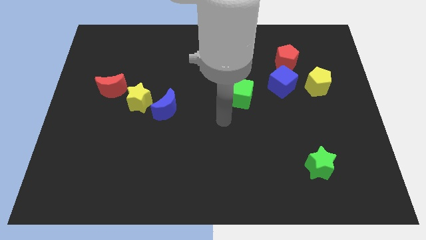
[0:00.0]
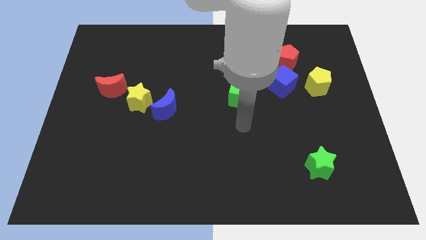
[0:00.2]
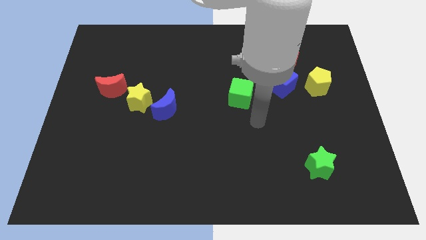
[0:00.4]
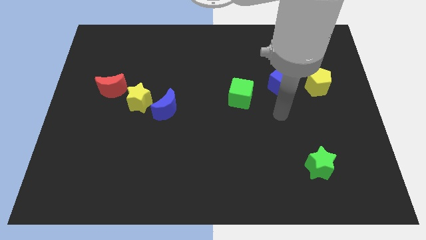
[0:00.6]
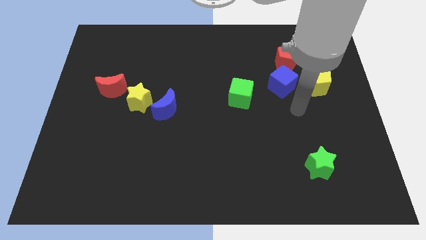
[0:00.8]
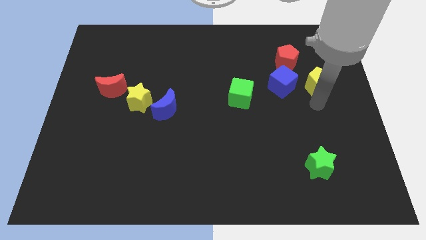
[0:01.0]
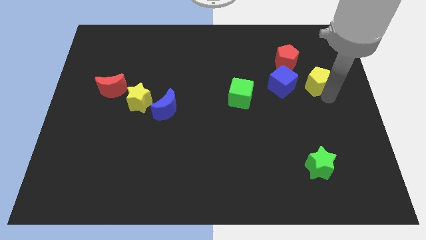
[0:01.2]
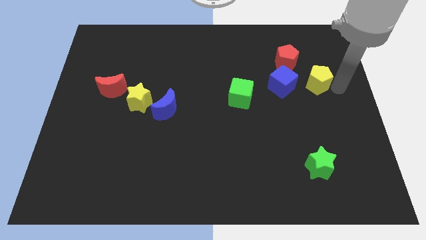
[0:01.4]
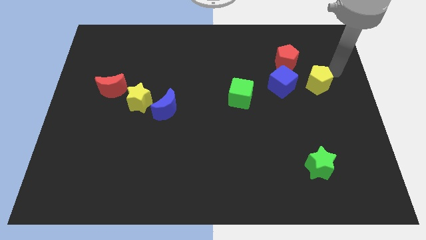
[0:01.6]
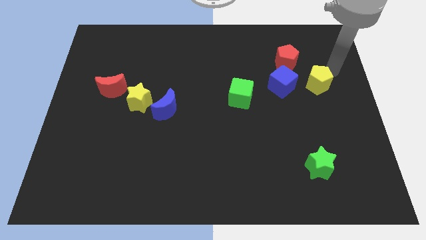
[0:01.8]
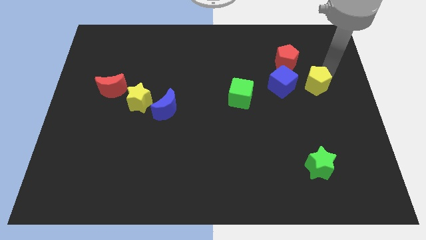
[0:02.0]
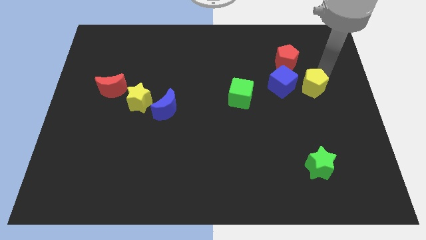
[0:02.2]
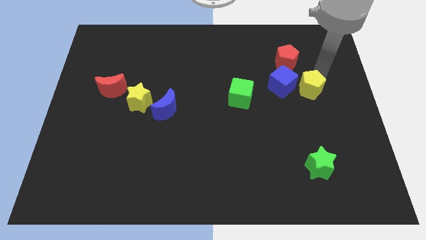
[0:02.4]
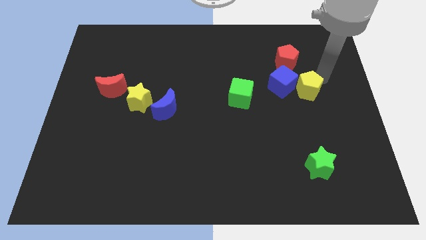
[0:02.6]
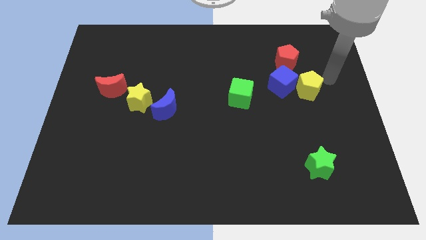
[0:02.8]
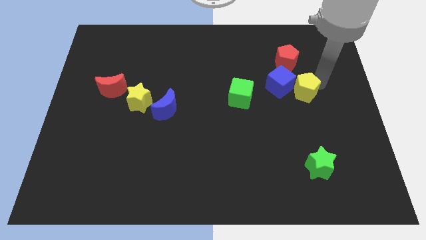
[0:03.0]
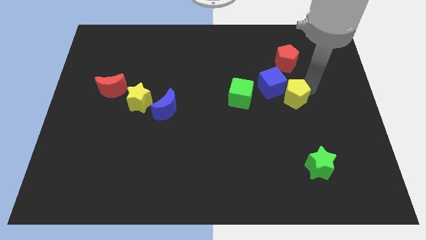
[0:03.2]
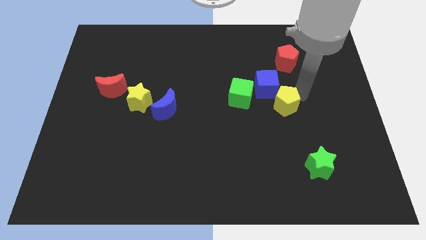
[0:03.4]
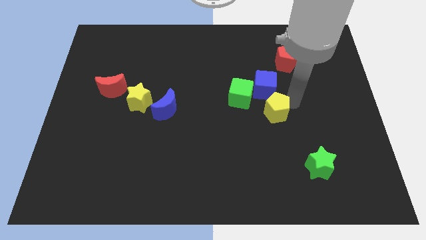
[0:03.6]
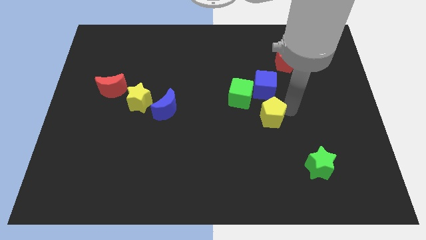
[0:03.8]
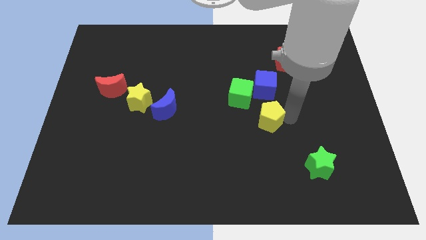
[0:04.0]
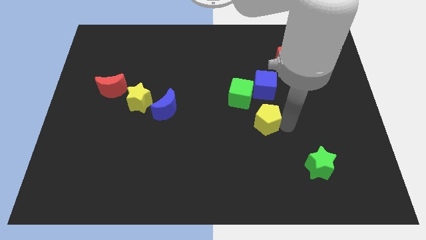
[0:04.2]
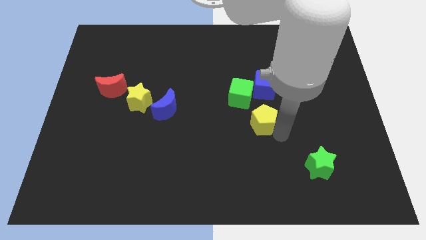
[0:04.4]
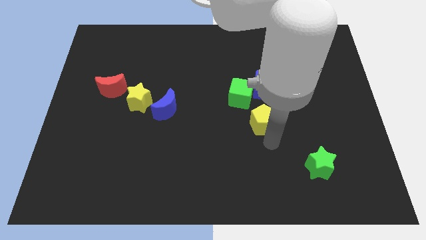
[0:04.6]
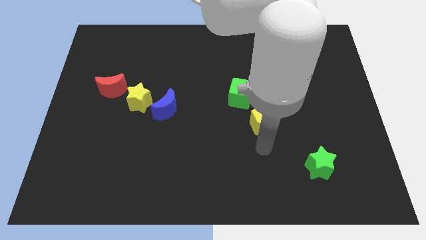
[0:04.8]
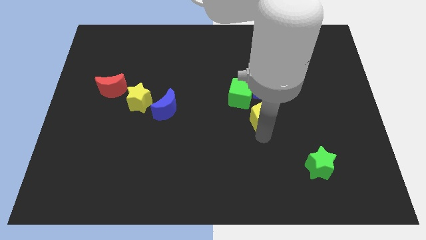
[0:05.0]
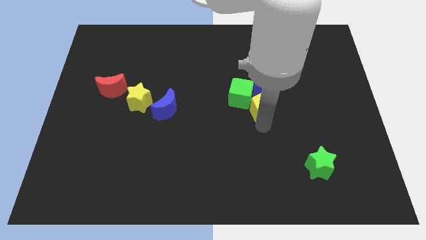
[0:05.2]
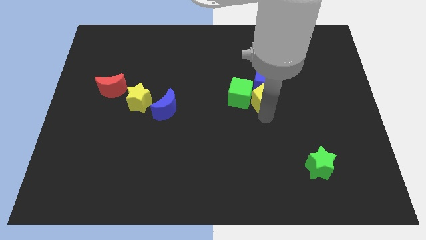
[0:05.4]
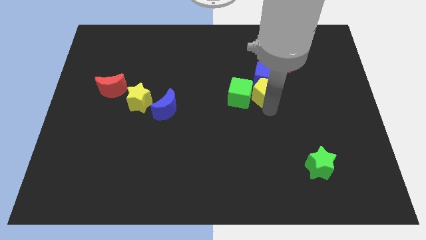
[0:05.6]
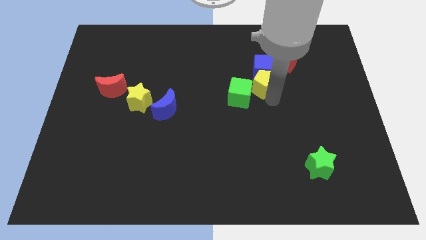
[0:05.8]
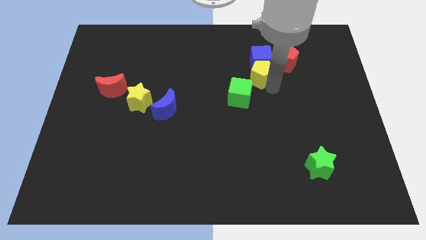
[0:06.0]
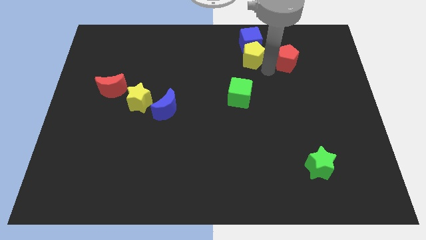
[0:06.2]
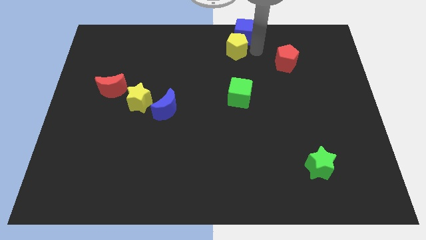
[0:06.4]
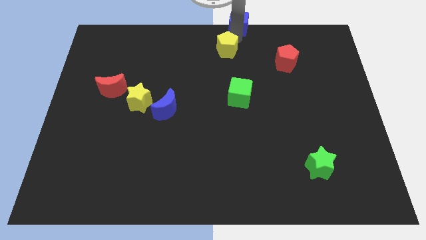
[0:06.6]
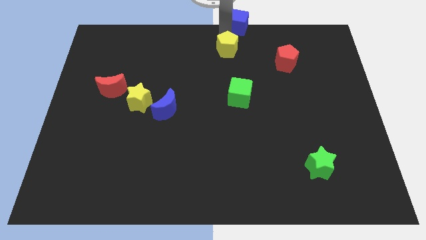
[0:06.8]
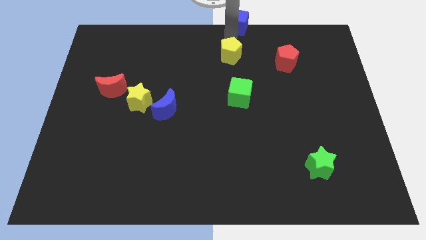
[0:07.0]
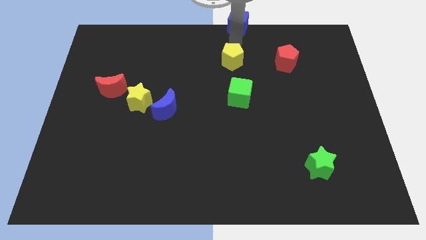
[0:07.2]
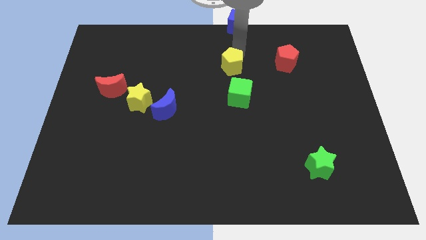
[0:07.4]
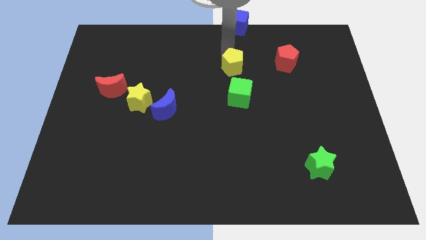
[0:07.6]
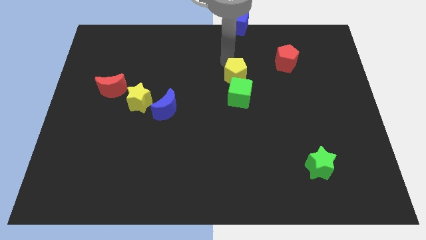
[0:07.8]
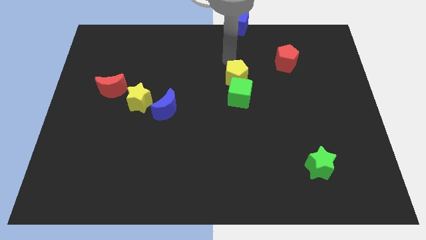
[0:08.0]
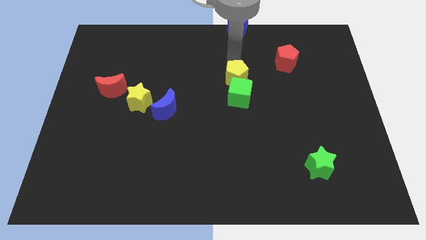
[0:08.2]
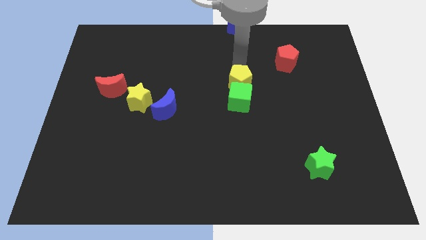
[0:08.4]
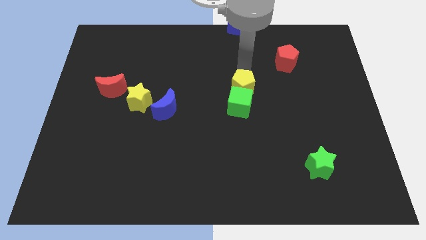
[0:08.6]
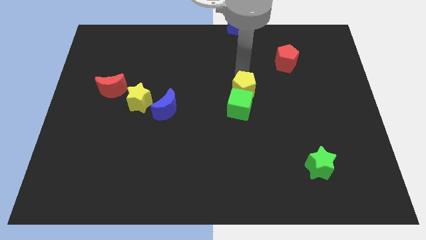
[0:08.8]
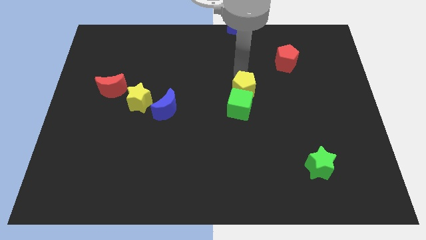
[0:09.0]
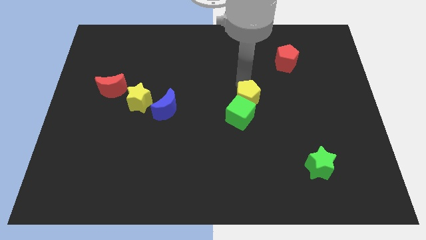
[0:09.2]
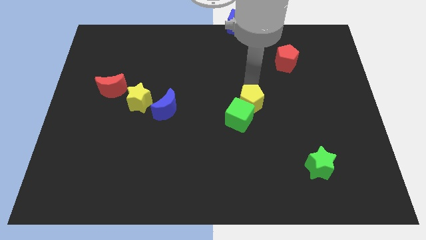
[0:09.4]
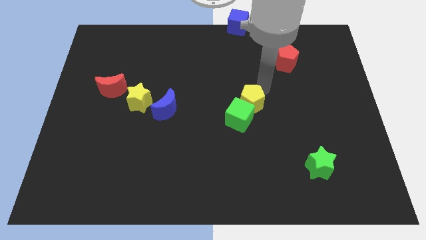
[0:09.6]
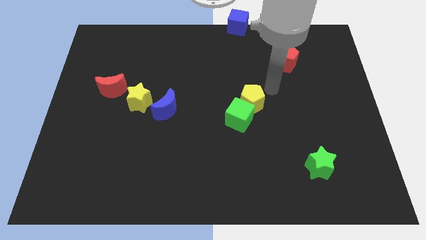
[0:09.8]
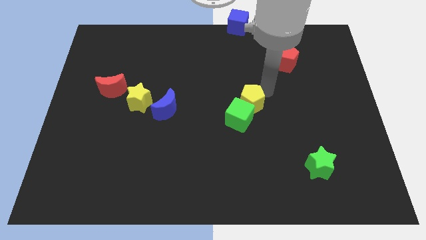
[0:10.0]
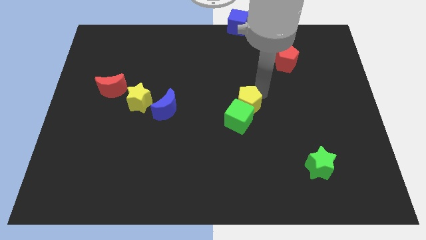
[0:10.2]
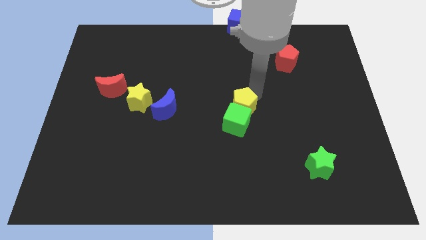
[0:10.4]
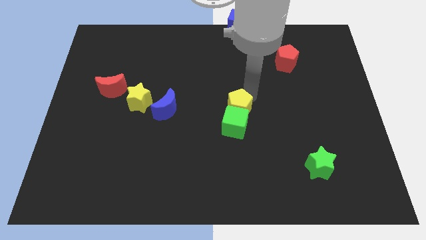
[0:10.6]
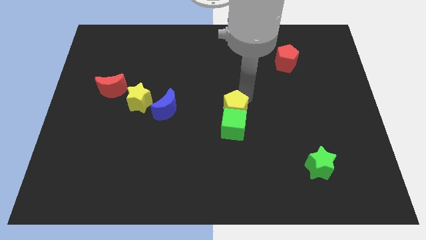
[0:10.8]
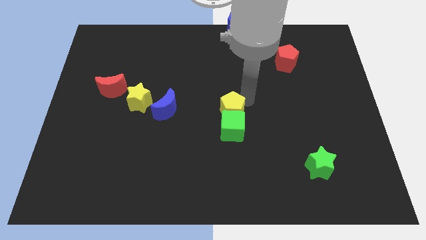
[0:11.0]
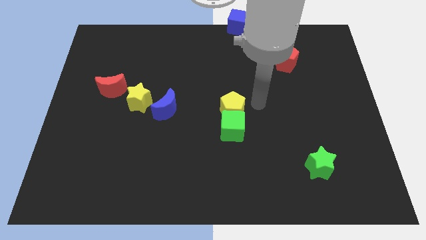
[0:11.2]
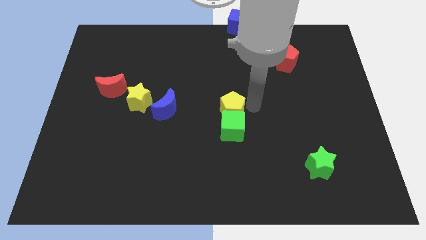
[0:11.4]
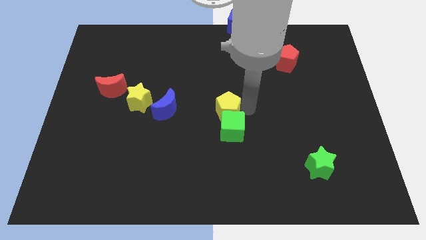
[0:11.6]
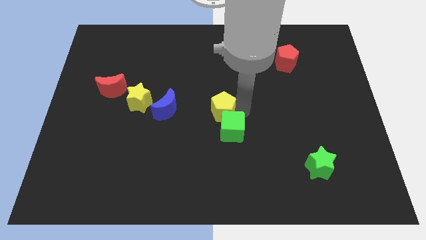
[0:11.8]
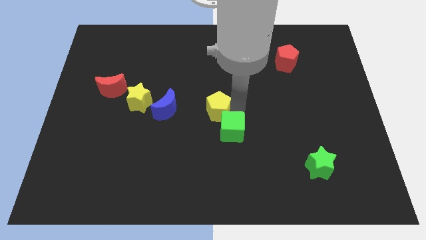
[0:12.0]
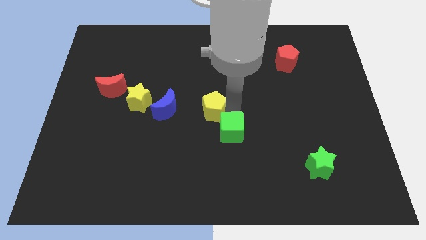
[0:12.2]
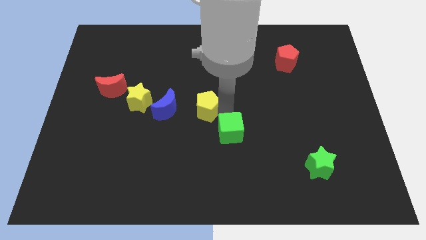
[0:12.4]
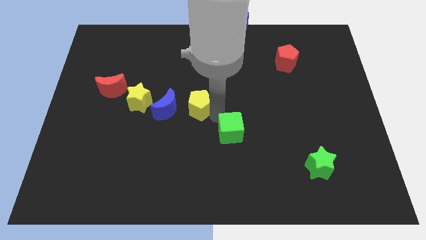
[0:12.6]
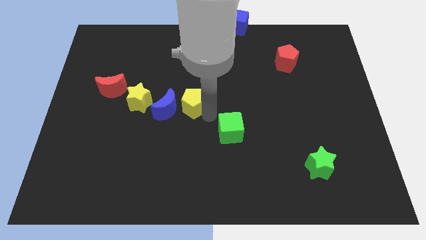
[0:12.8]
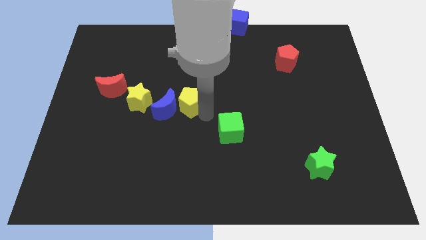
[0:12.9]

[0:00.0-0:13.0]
move the yellow pentagon to the blue moon

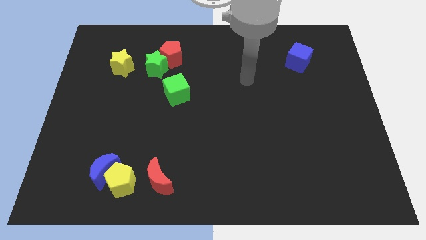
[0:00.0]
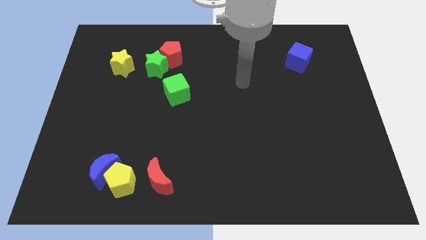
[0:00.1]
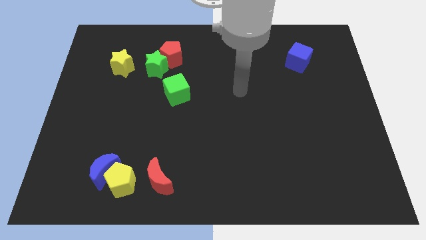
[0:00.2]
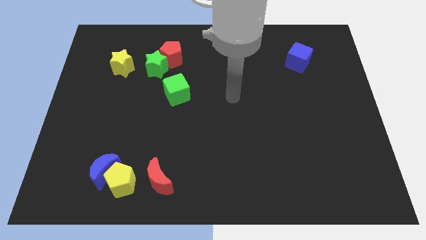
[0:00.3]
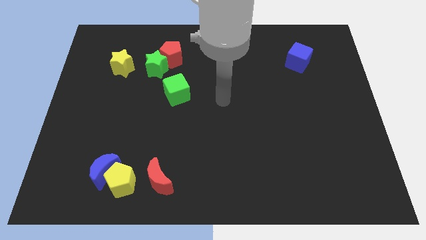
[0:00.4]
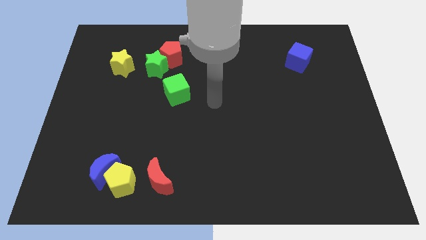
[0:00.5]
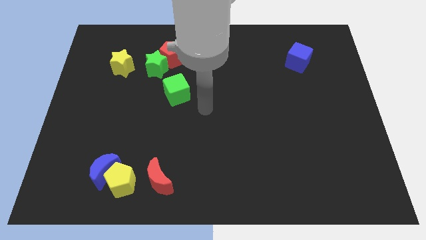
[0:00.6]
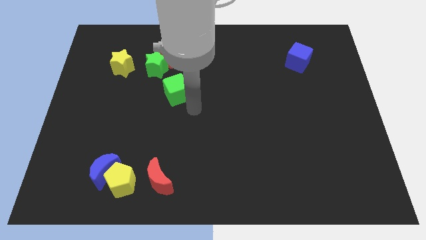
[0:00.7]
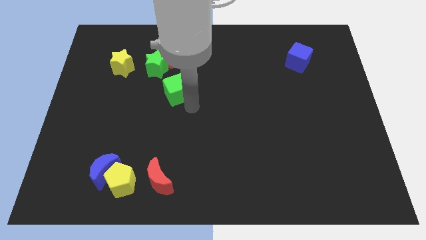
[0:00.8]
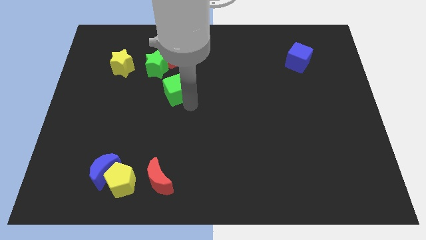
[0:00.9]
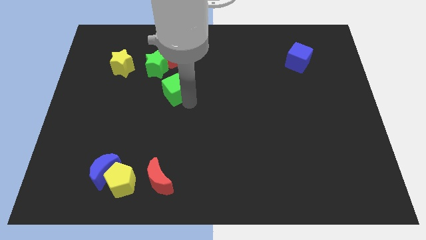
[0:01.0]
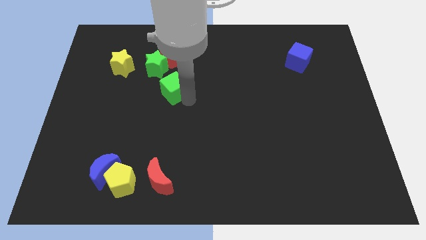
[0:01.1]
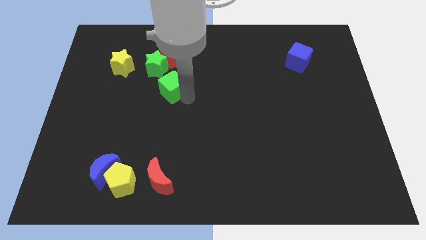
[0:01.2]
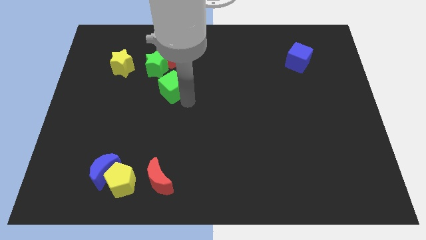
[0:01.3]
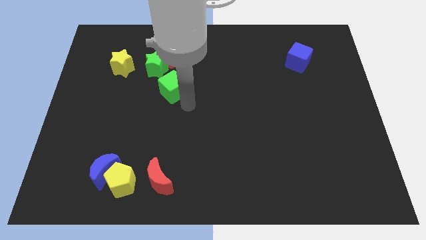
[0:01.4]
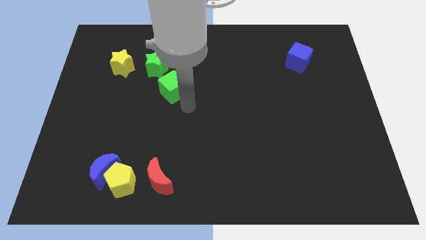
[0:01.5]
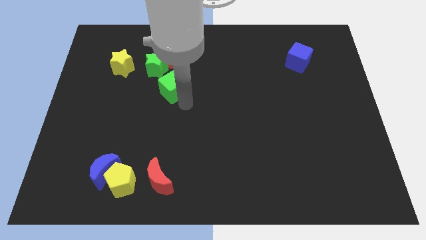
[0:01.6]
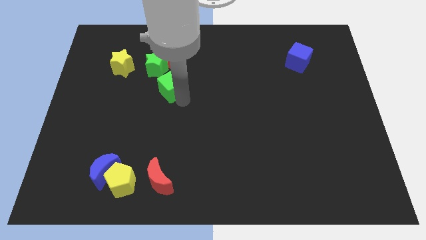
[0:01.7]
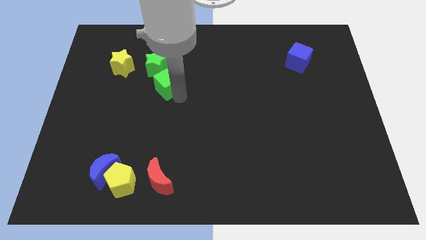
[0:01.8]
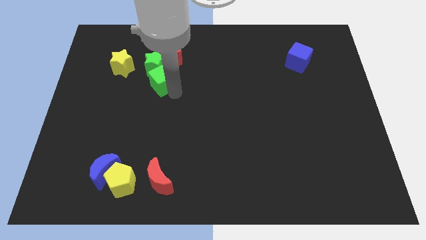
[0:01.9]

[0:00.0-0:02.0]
slide the green cube to the green star
